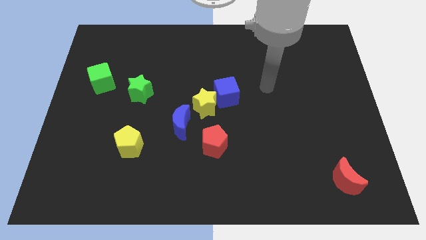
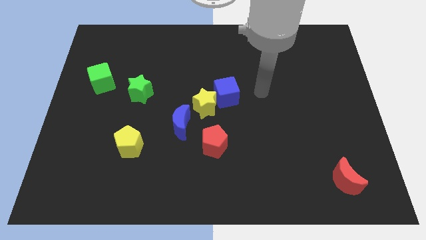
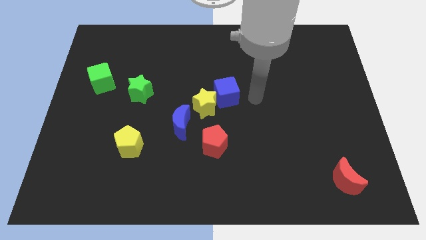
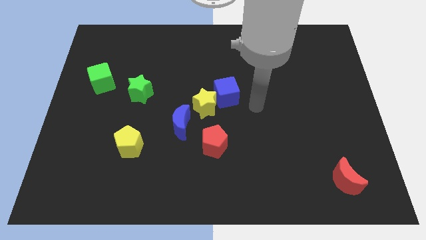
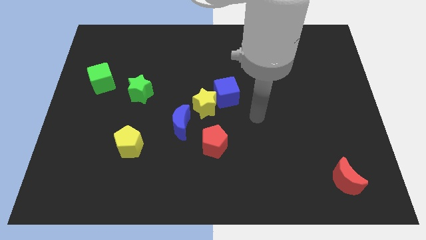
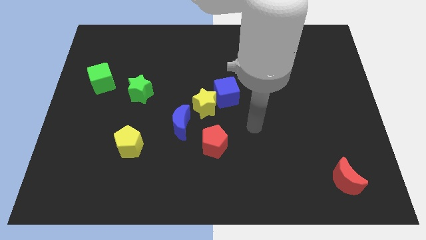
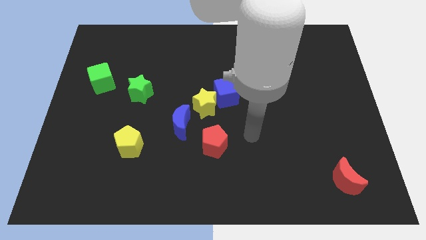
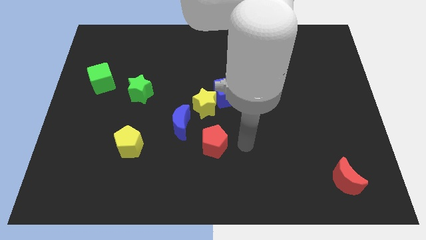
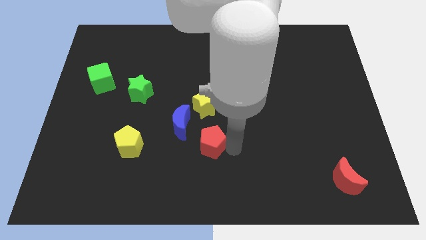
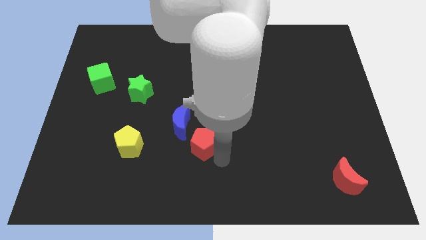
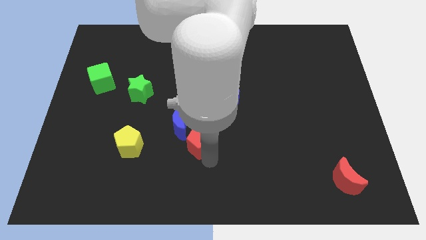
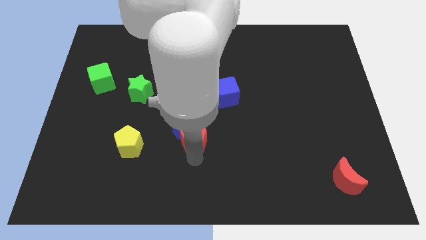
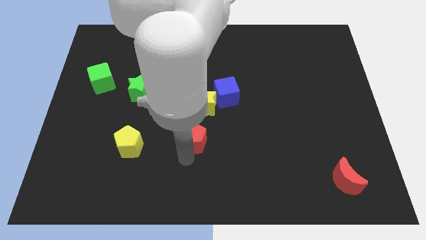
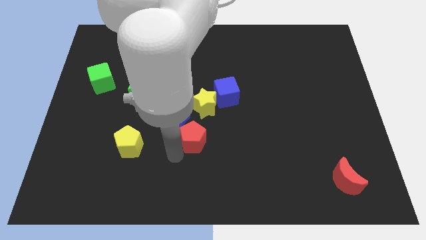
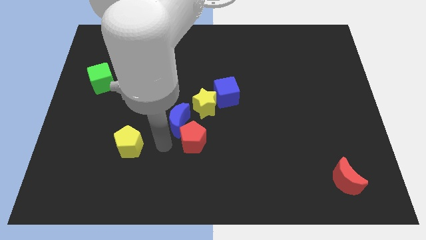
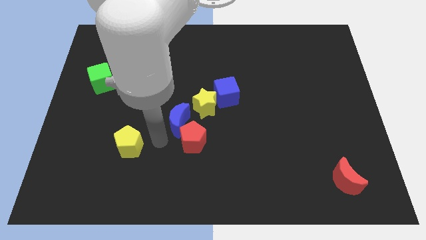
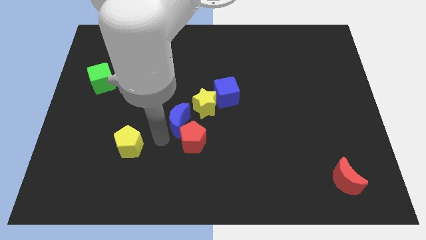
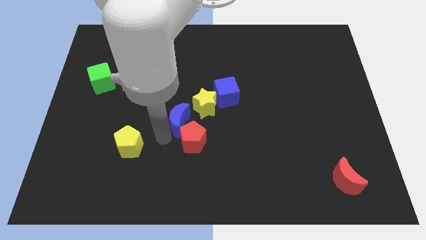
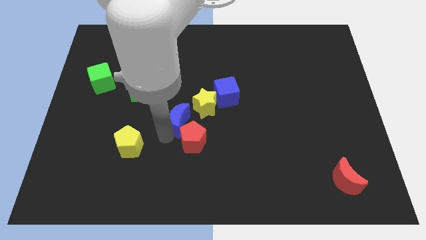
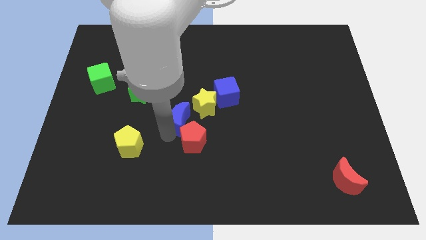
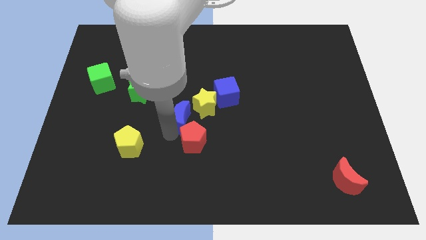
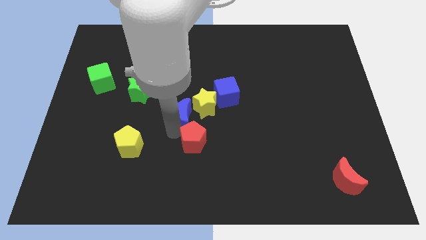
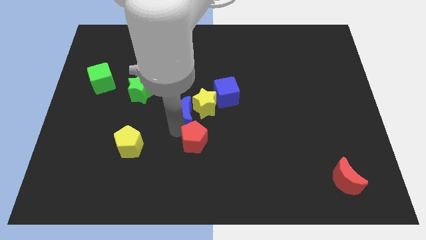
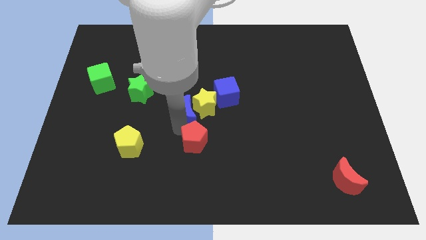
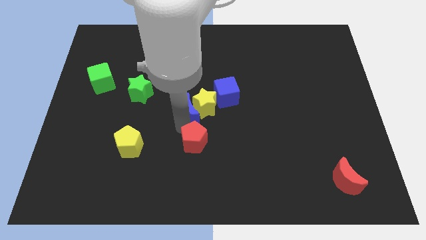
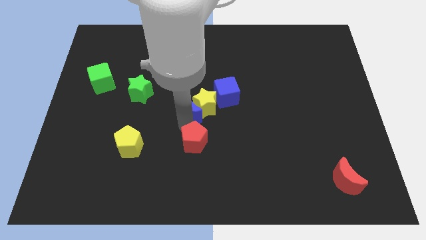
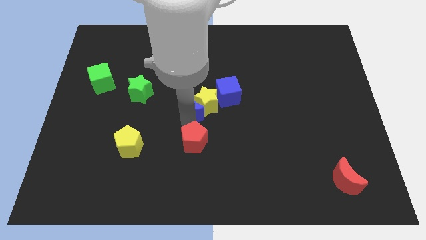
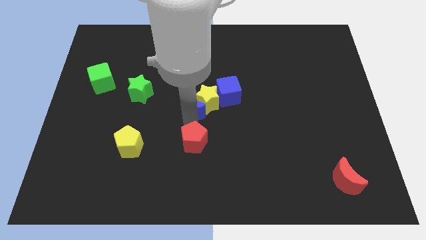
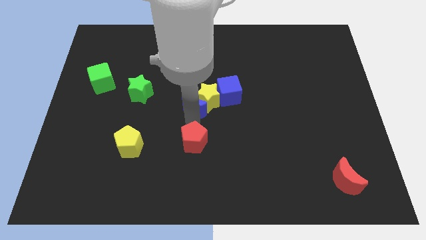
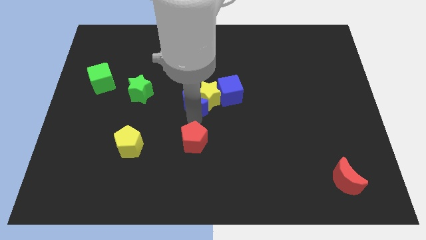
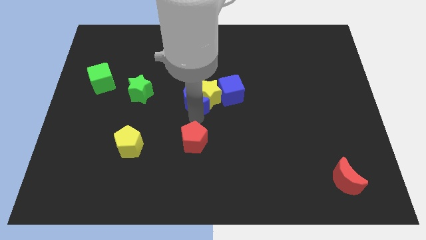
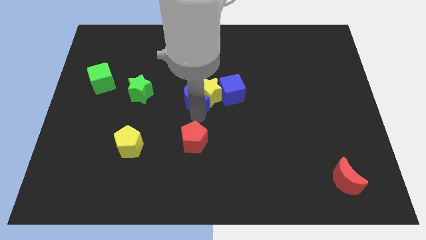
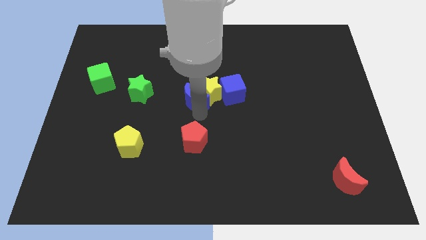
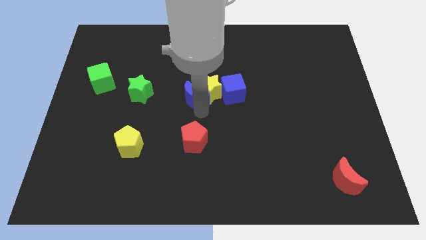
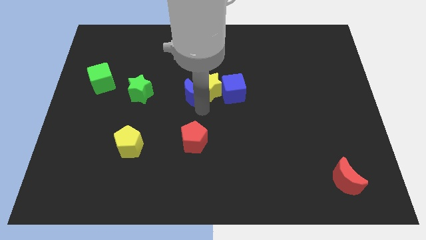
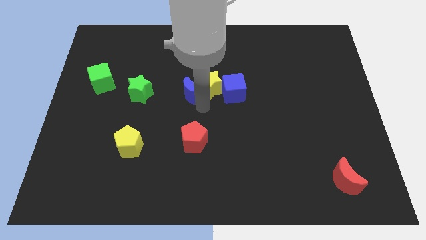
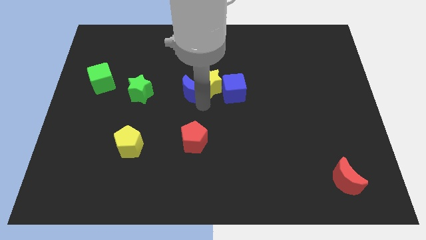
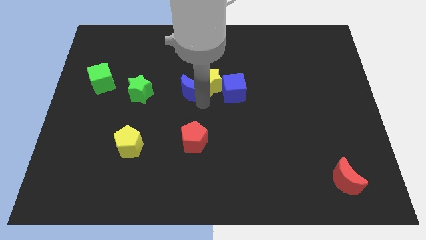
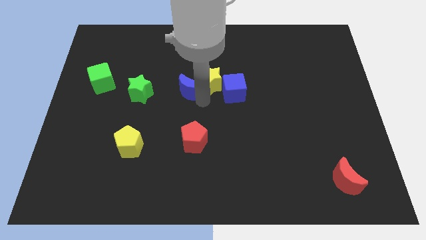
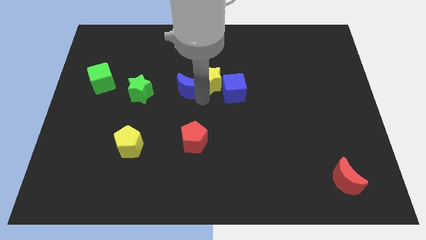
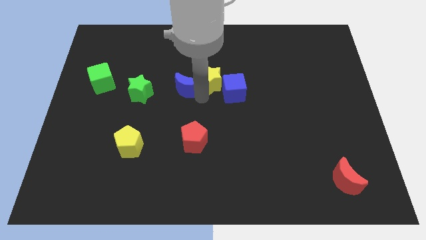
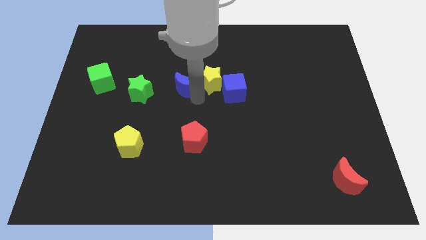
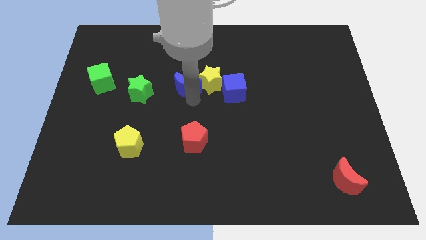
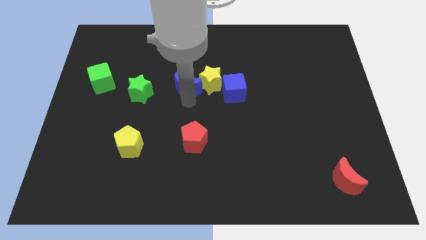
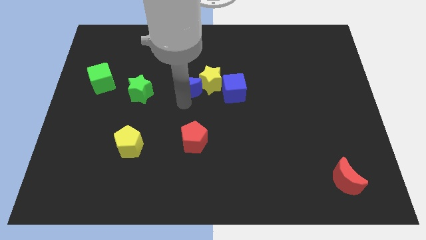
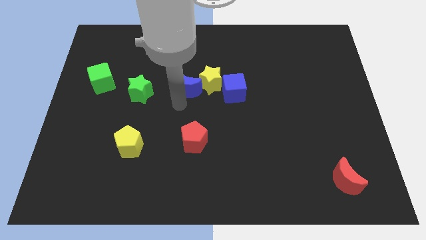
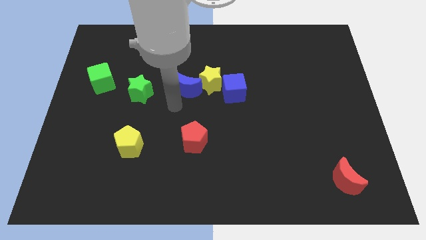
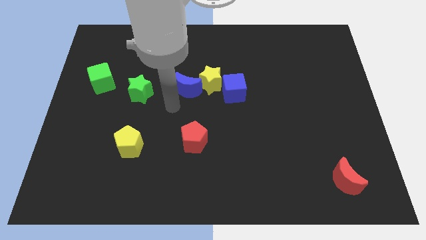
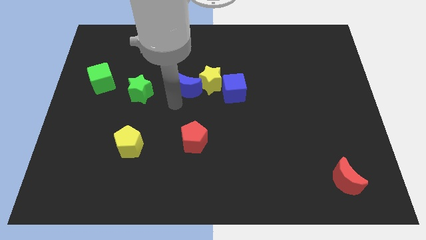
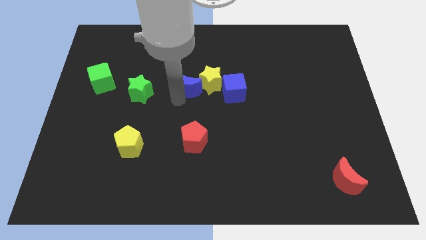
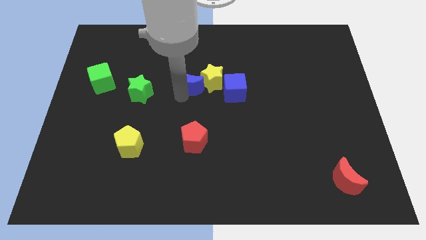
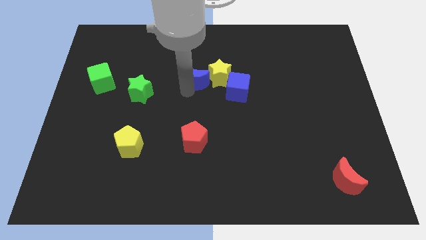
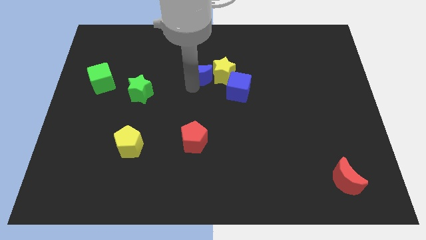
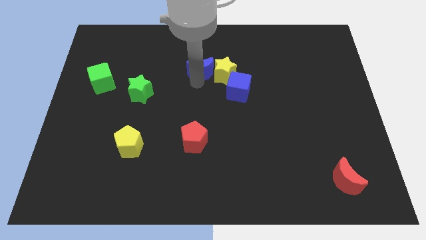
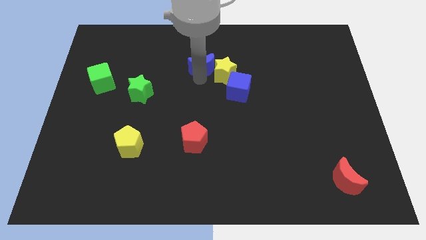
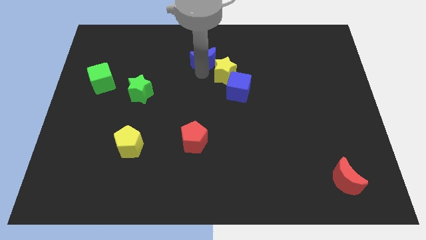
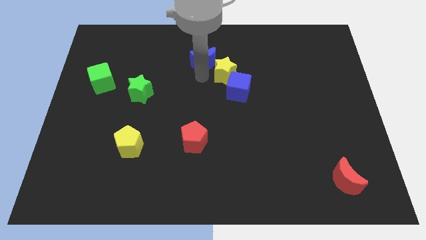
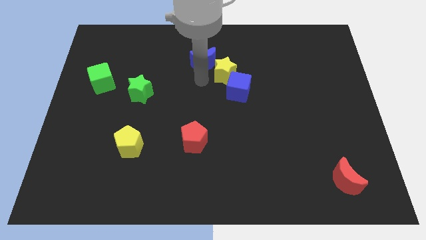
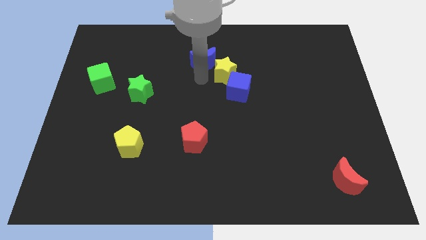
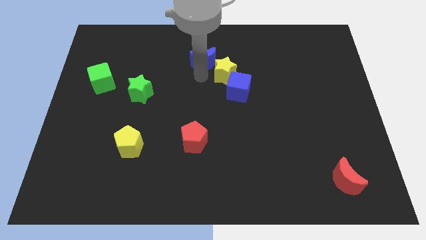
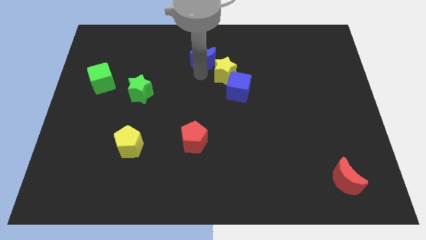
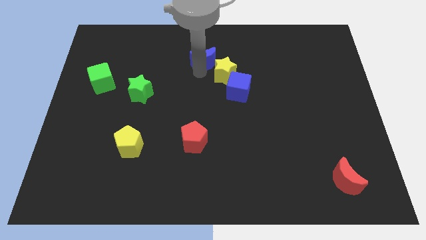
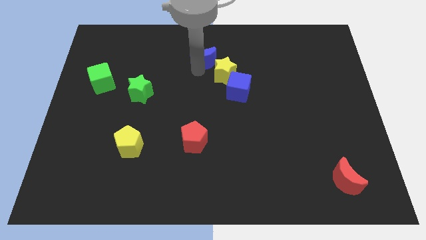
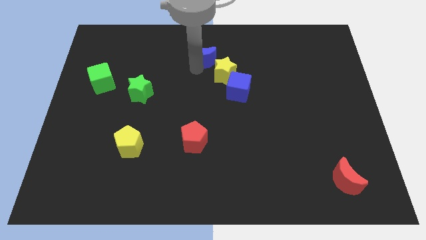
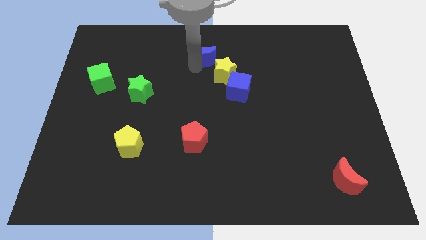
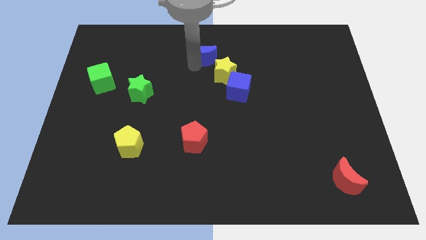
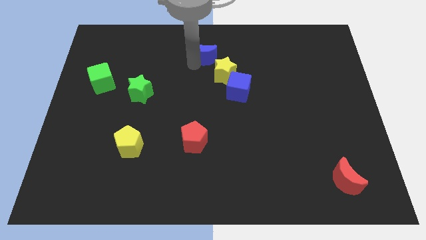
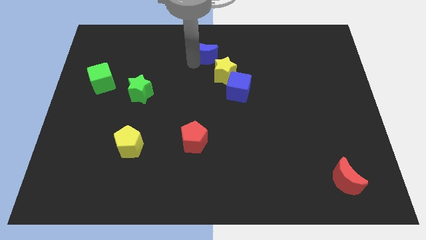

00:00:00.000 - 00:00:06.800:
move the blue moon to the top side
